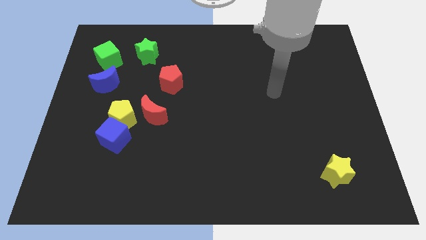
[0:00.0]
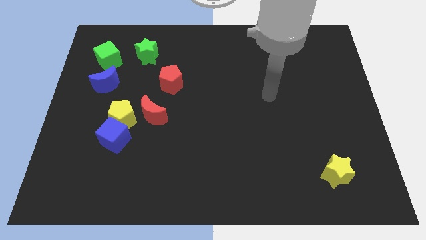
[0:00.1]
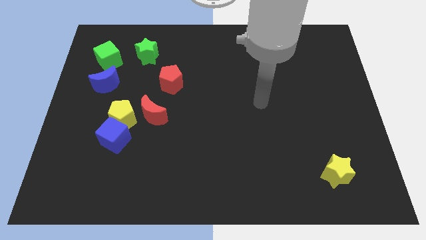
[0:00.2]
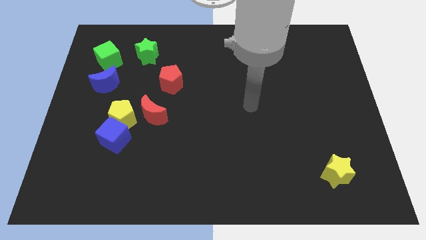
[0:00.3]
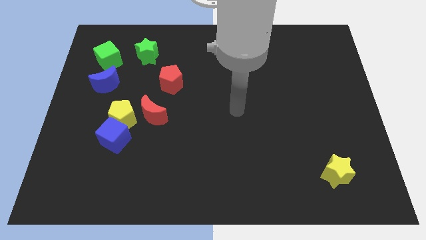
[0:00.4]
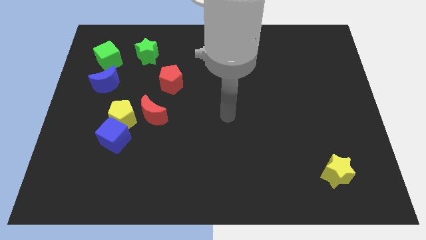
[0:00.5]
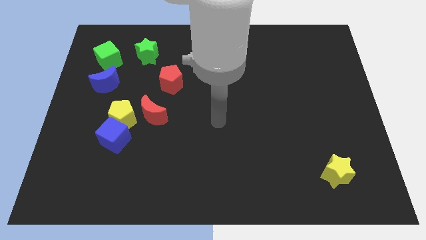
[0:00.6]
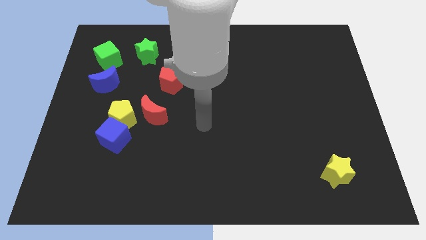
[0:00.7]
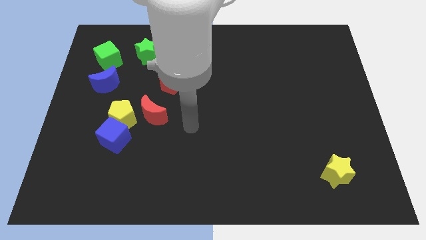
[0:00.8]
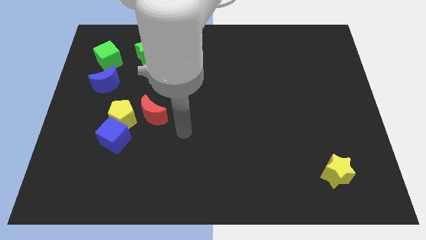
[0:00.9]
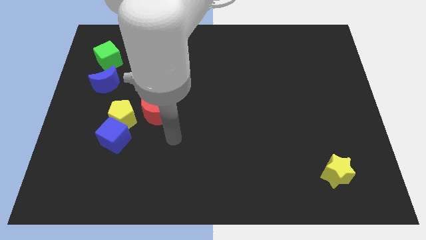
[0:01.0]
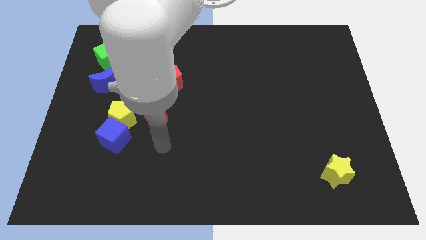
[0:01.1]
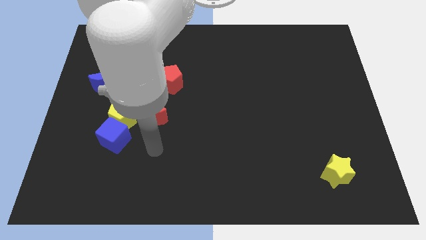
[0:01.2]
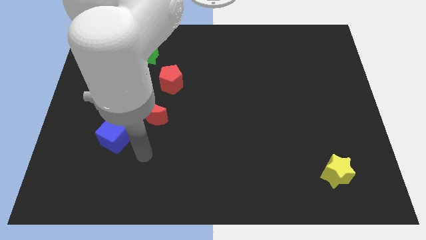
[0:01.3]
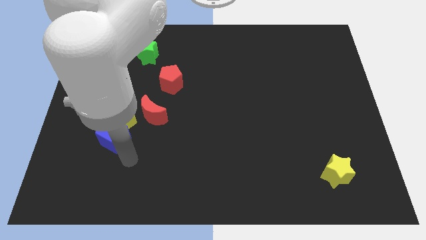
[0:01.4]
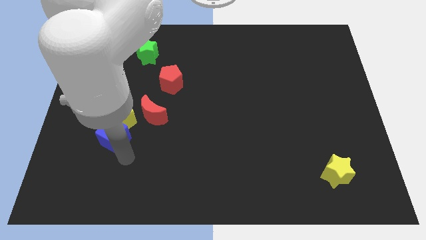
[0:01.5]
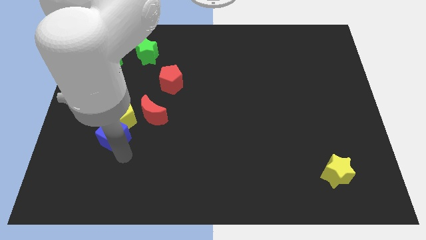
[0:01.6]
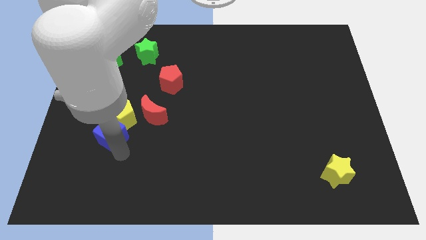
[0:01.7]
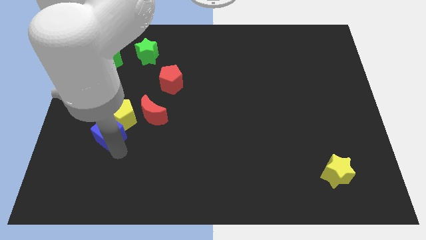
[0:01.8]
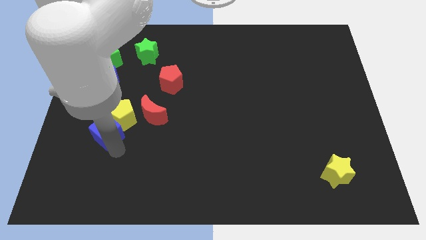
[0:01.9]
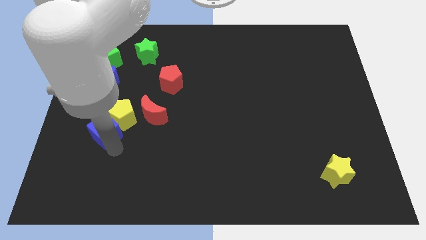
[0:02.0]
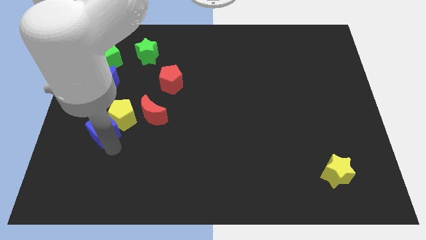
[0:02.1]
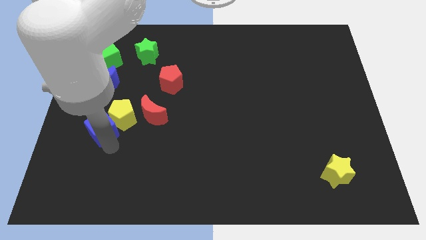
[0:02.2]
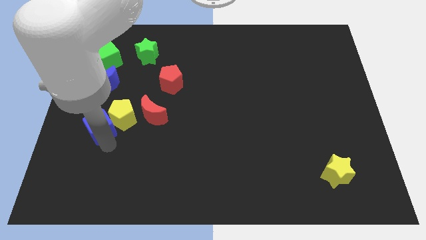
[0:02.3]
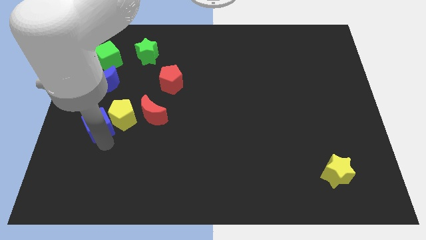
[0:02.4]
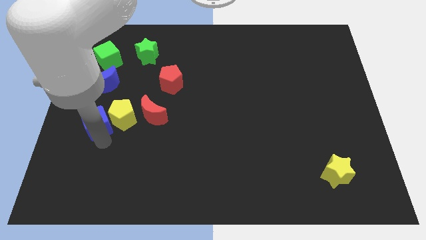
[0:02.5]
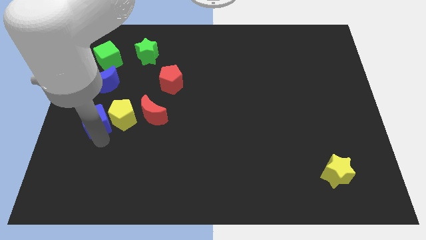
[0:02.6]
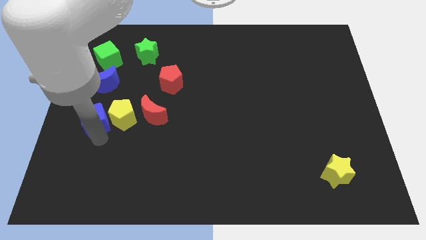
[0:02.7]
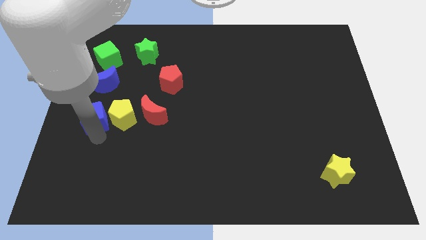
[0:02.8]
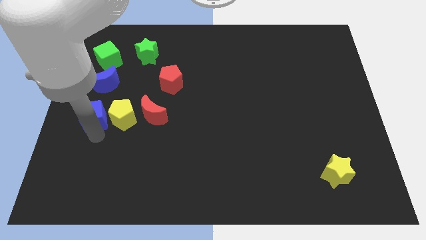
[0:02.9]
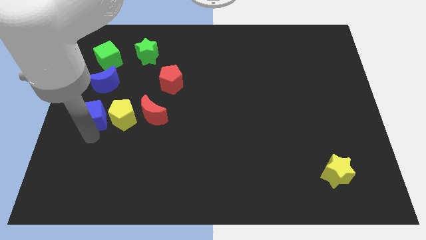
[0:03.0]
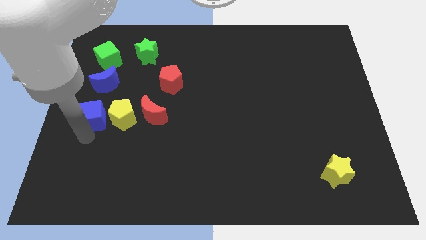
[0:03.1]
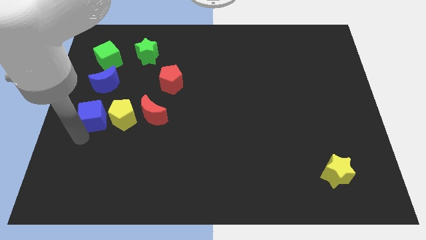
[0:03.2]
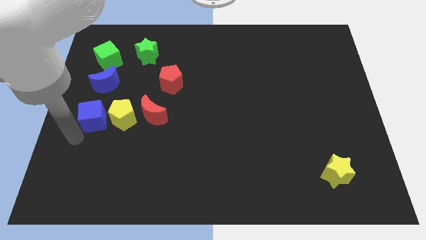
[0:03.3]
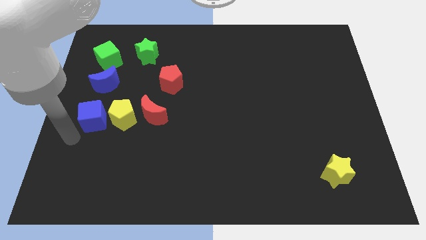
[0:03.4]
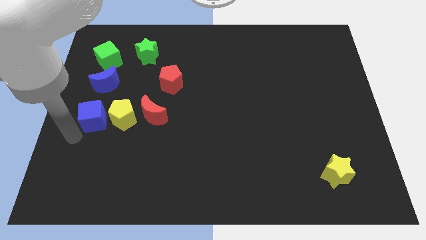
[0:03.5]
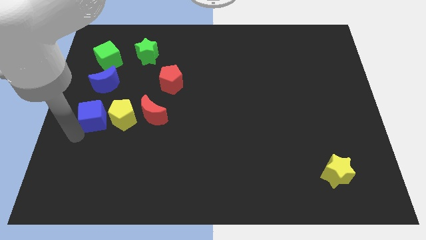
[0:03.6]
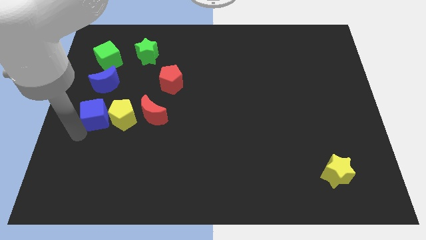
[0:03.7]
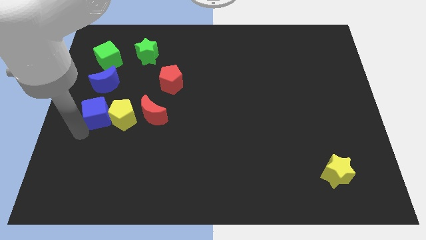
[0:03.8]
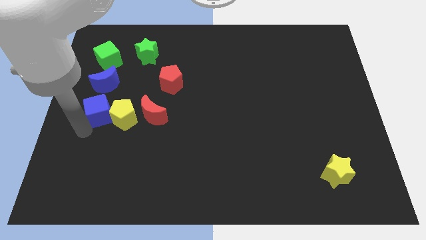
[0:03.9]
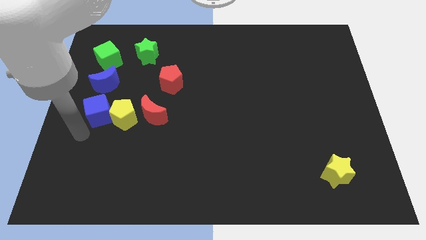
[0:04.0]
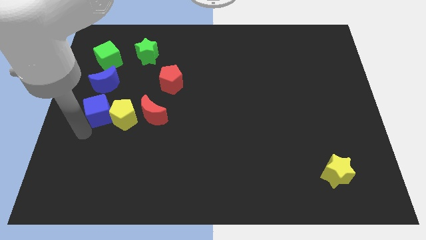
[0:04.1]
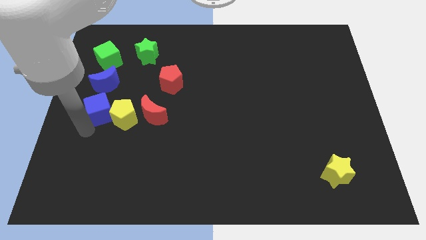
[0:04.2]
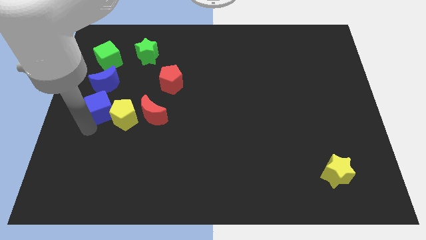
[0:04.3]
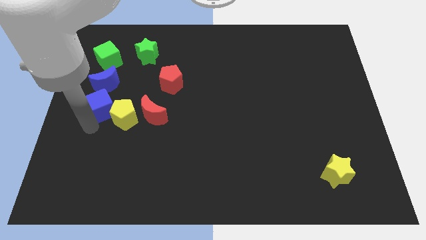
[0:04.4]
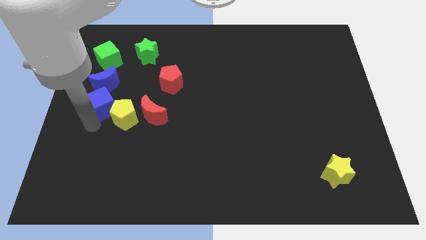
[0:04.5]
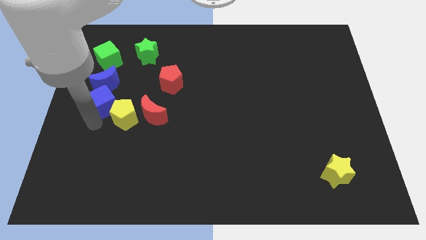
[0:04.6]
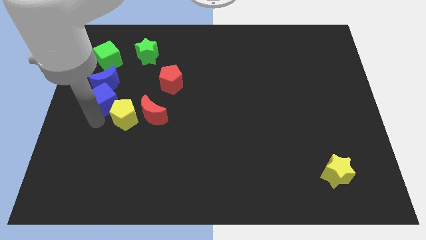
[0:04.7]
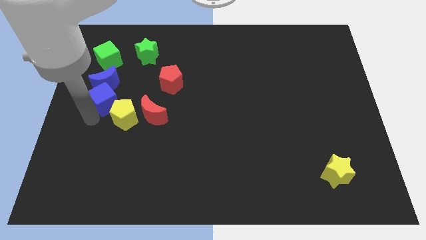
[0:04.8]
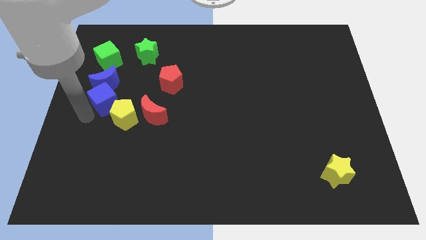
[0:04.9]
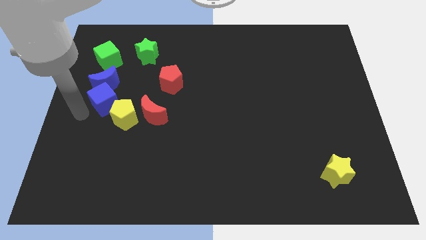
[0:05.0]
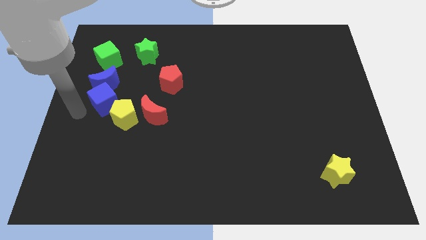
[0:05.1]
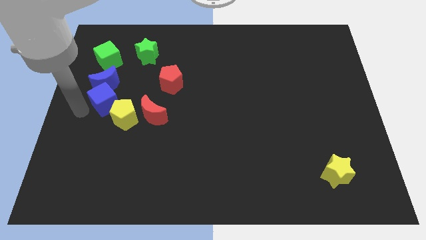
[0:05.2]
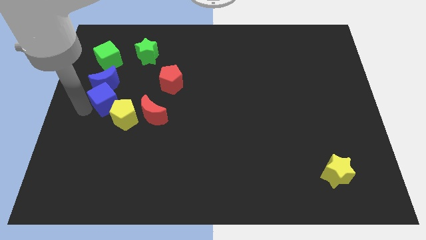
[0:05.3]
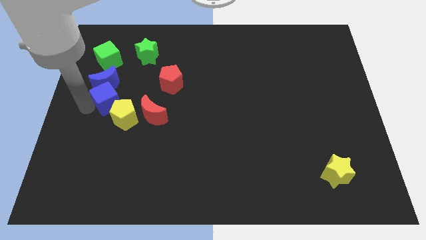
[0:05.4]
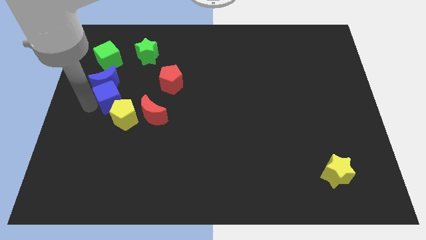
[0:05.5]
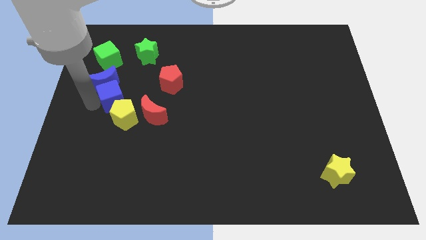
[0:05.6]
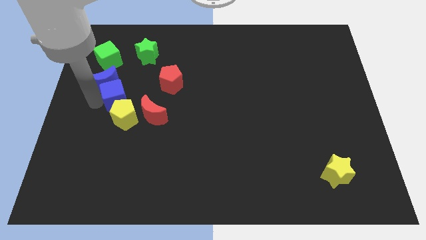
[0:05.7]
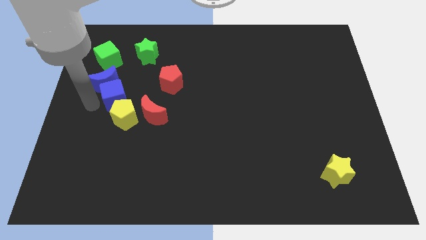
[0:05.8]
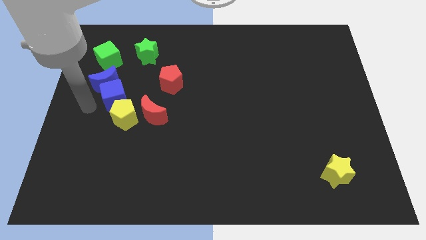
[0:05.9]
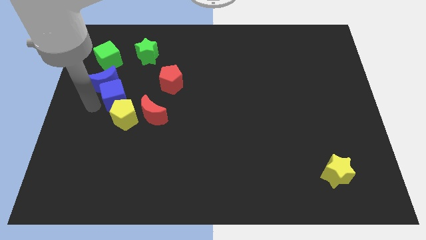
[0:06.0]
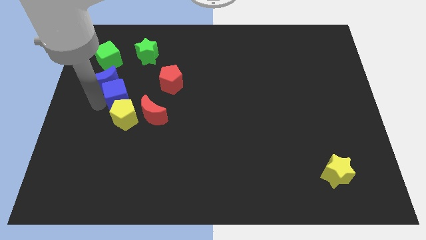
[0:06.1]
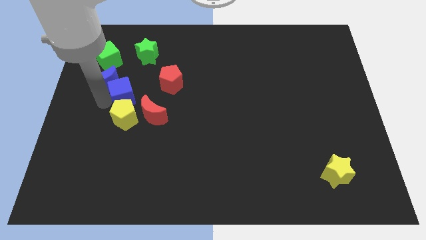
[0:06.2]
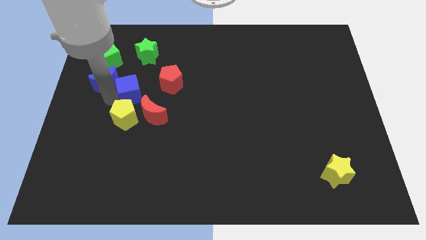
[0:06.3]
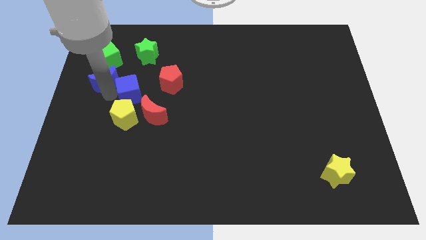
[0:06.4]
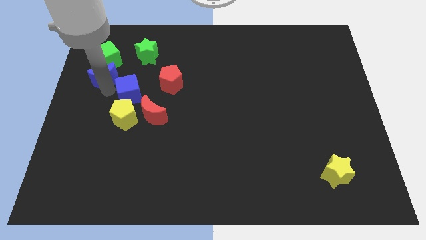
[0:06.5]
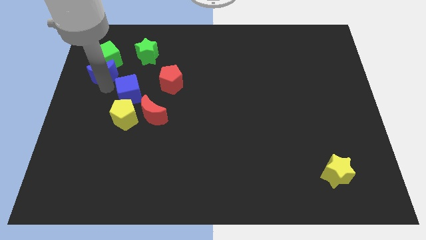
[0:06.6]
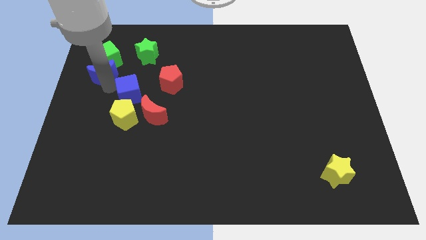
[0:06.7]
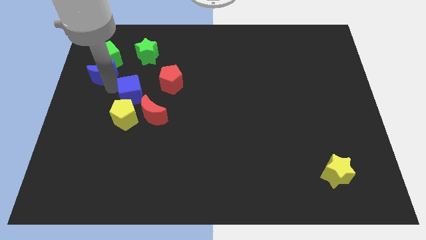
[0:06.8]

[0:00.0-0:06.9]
put the blue cube to the top right of the yellow pentagon
